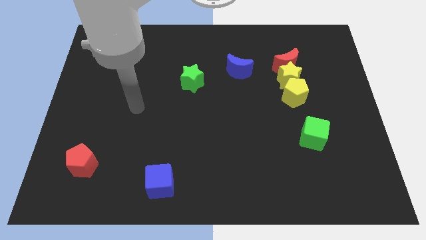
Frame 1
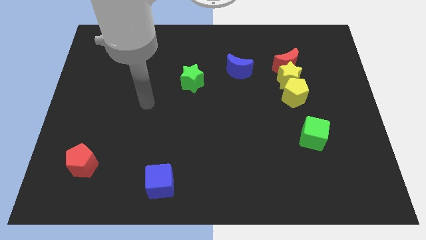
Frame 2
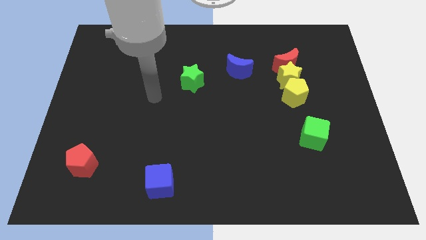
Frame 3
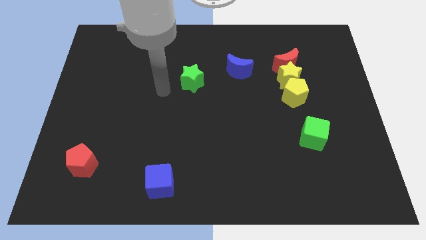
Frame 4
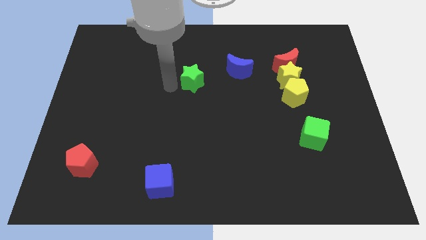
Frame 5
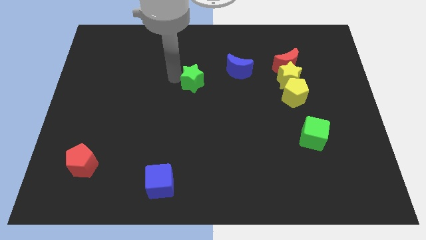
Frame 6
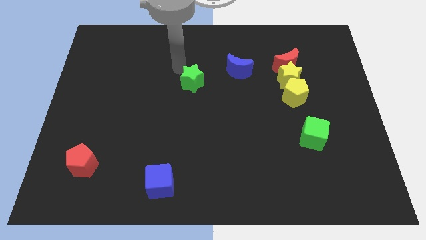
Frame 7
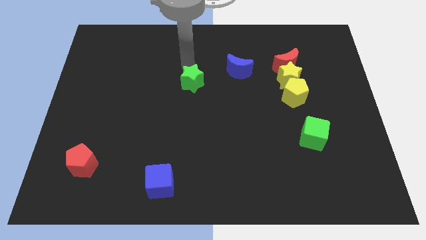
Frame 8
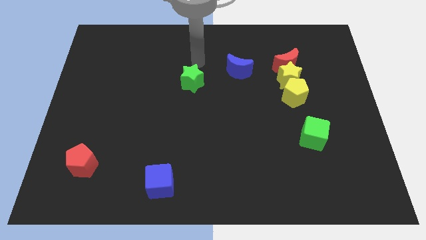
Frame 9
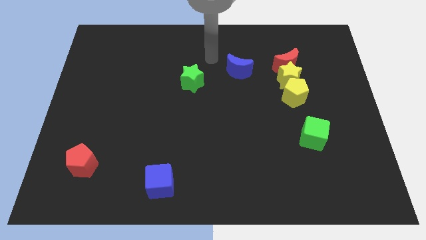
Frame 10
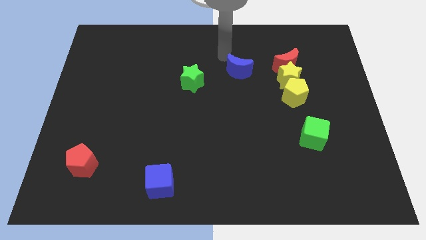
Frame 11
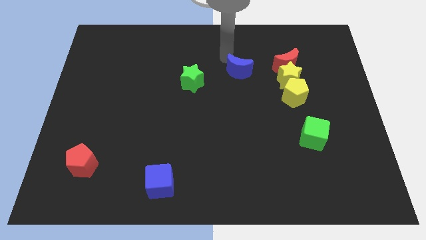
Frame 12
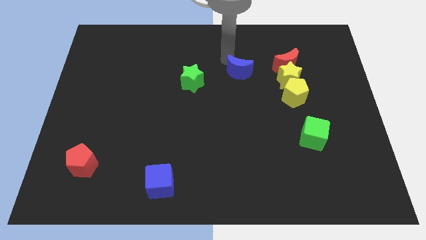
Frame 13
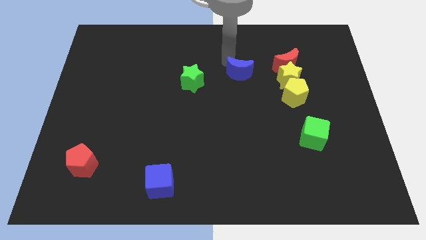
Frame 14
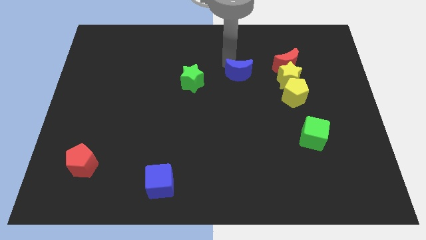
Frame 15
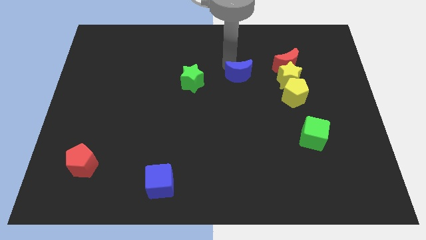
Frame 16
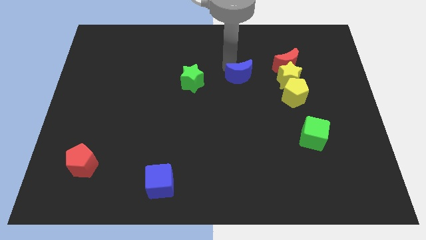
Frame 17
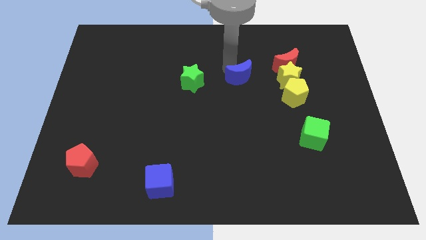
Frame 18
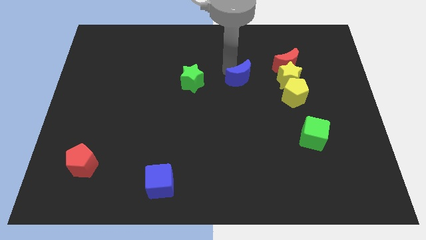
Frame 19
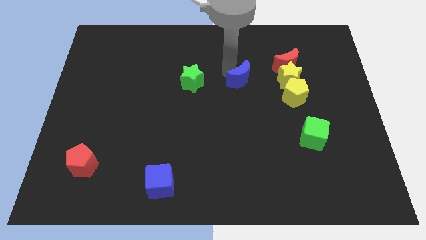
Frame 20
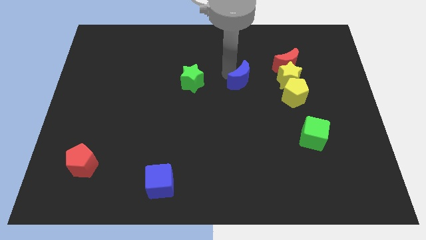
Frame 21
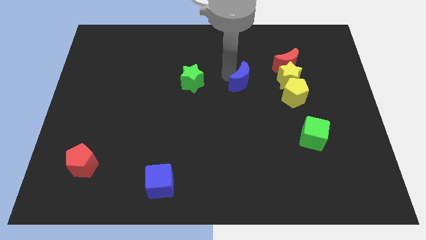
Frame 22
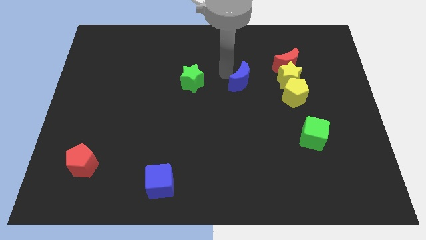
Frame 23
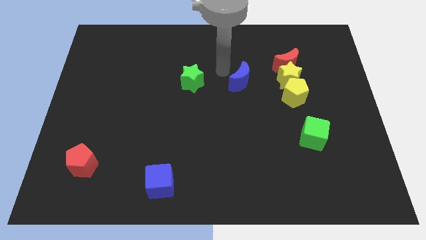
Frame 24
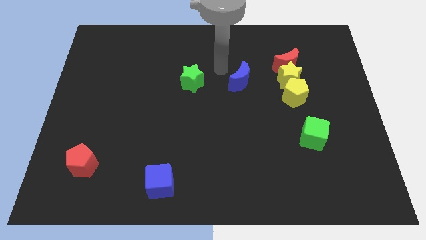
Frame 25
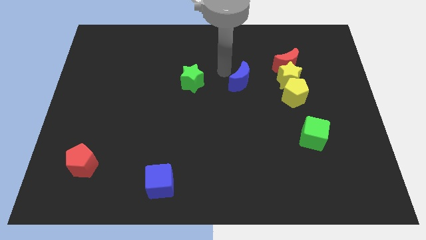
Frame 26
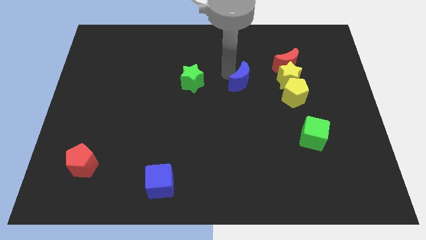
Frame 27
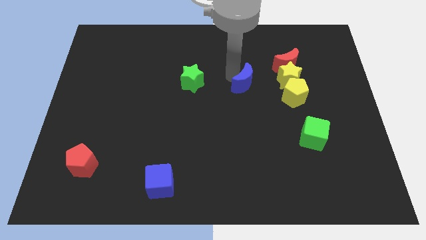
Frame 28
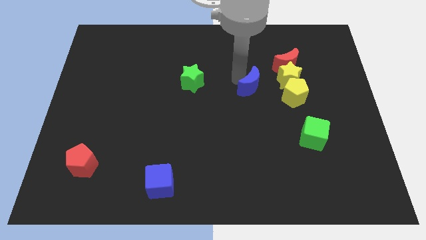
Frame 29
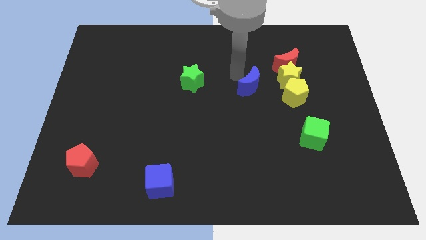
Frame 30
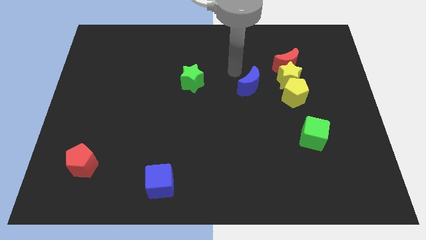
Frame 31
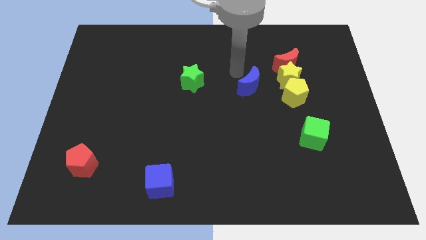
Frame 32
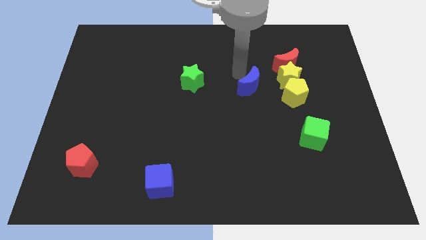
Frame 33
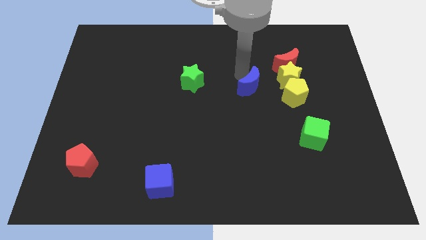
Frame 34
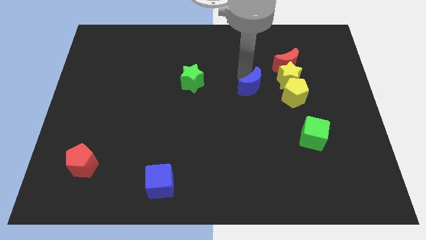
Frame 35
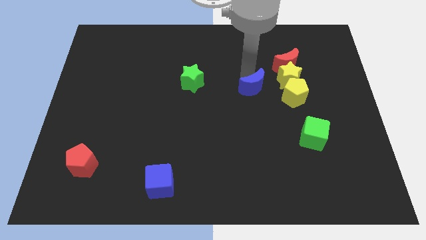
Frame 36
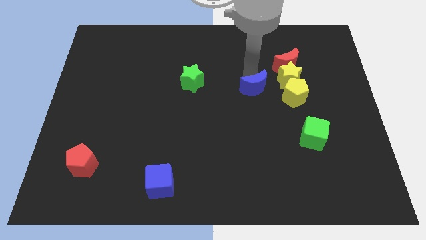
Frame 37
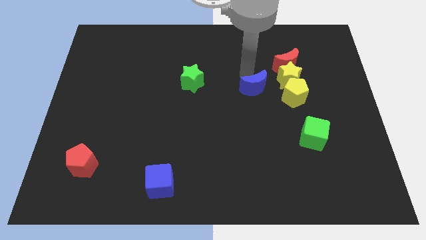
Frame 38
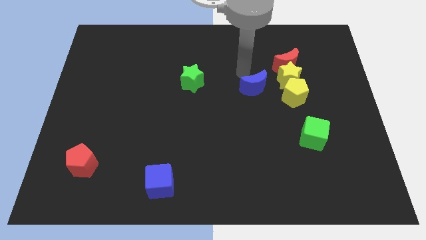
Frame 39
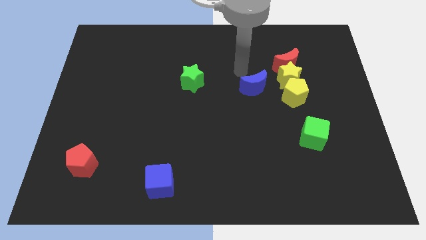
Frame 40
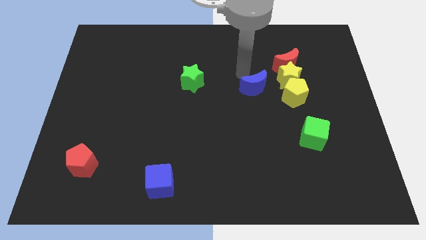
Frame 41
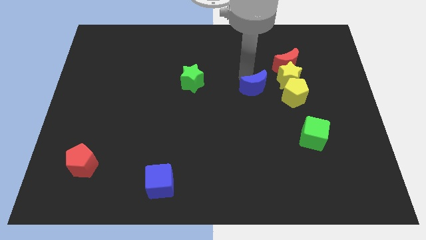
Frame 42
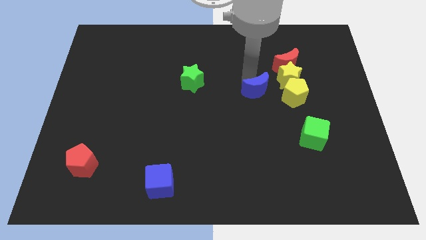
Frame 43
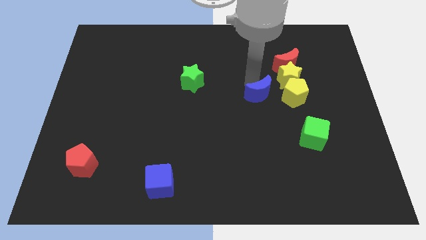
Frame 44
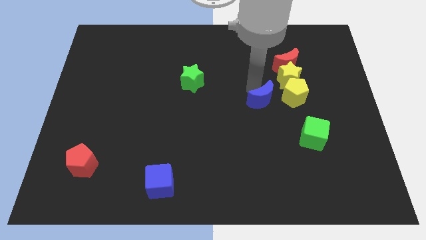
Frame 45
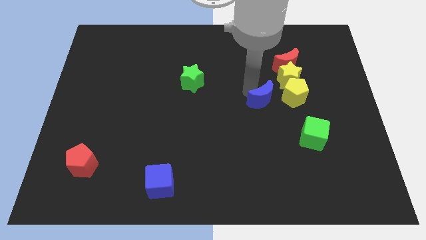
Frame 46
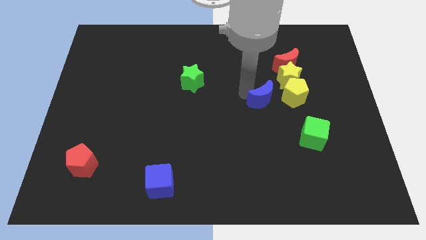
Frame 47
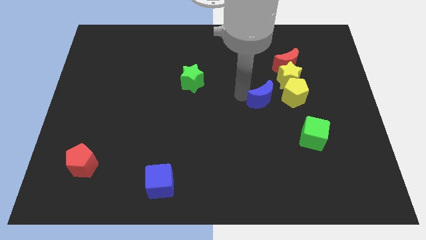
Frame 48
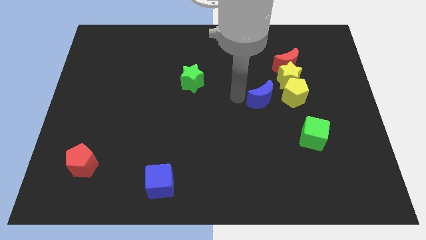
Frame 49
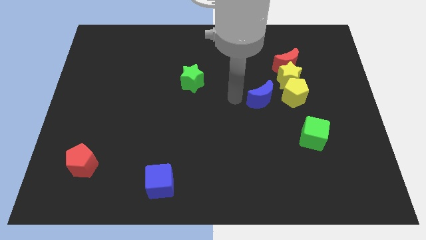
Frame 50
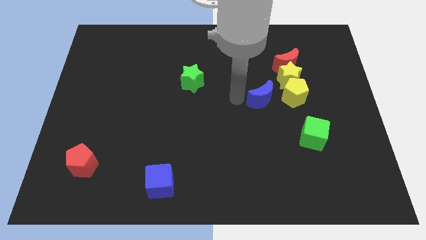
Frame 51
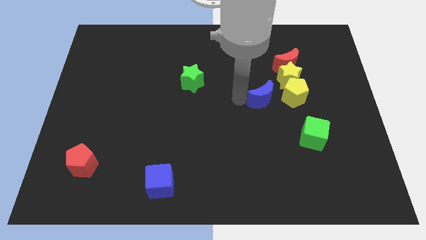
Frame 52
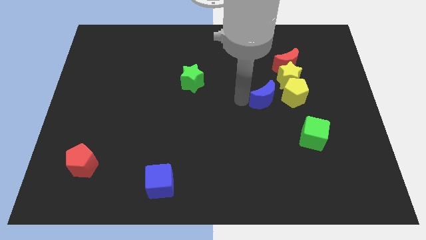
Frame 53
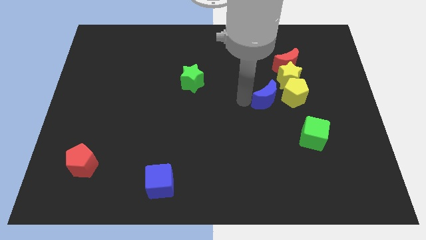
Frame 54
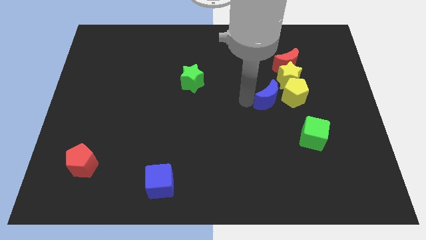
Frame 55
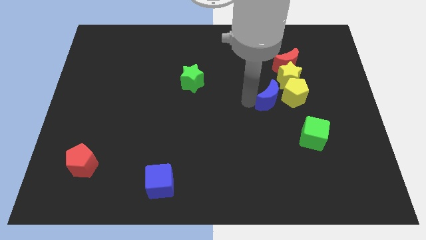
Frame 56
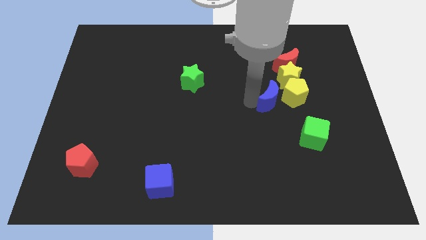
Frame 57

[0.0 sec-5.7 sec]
push the blue moon to the yellow pentagon
